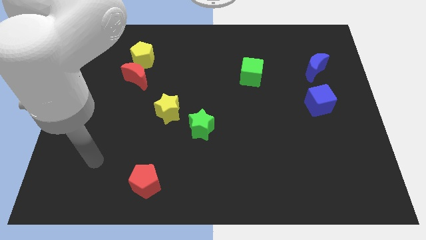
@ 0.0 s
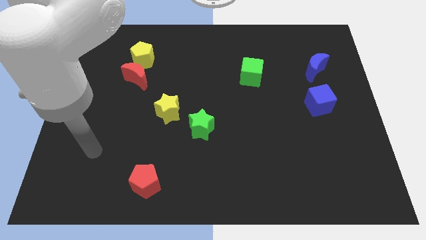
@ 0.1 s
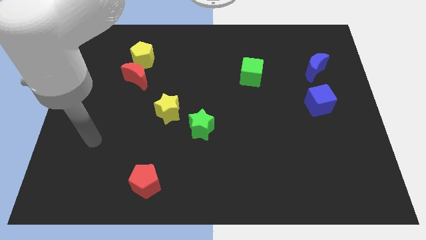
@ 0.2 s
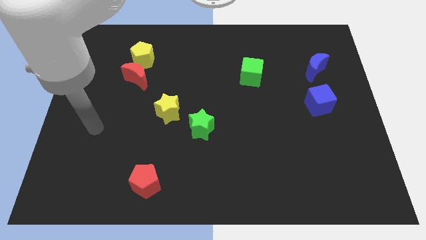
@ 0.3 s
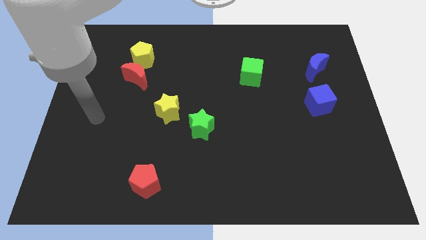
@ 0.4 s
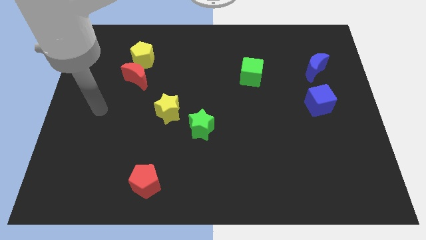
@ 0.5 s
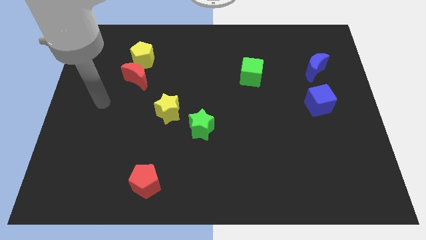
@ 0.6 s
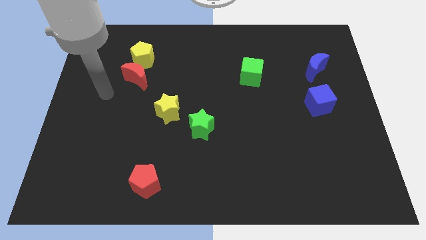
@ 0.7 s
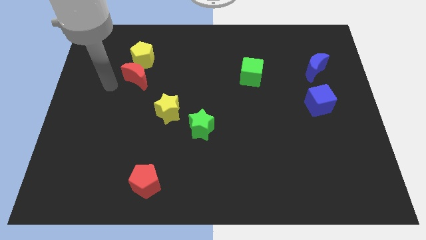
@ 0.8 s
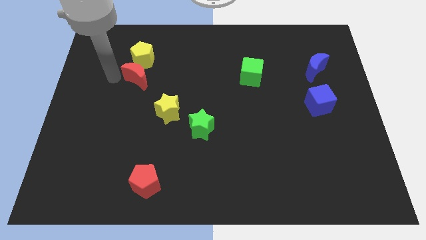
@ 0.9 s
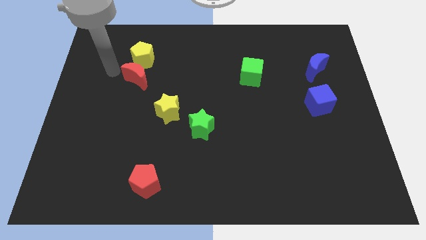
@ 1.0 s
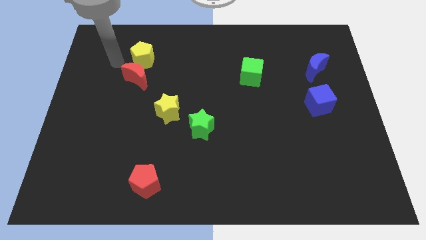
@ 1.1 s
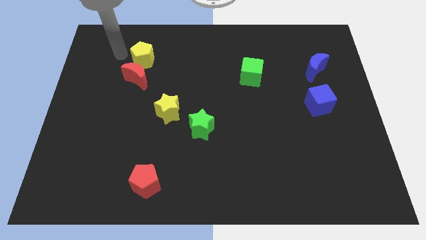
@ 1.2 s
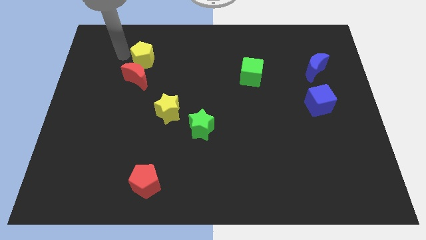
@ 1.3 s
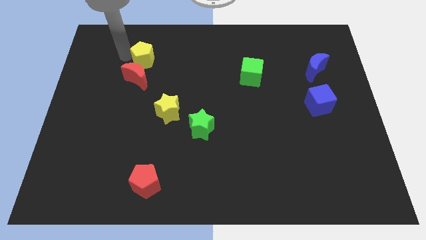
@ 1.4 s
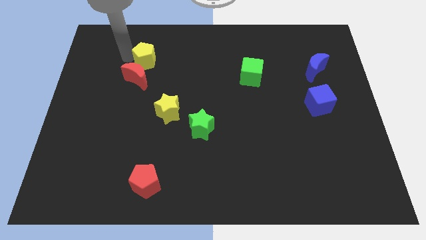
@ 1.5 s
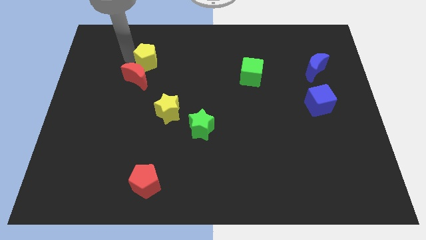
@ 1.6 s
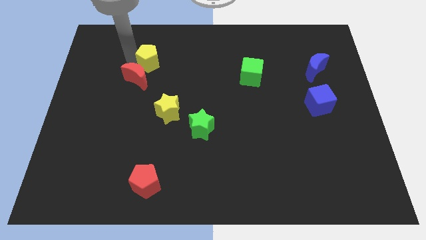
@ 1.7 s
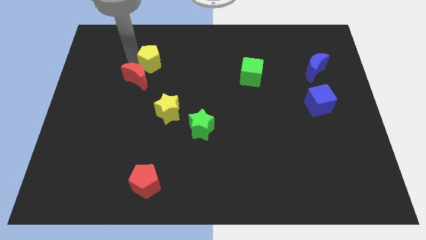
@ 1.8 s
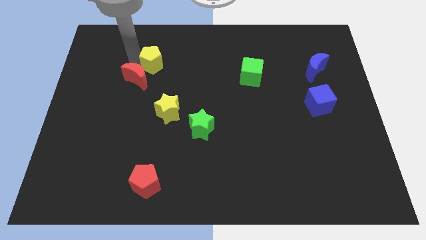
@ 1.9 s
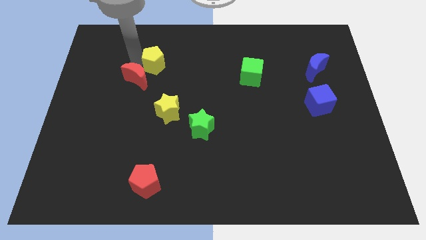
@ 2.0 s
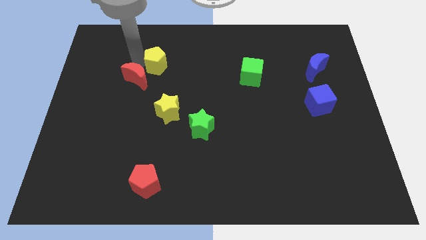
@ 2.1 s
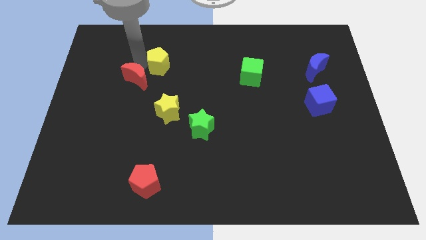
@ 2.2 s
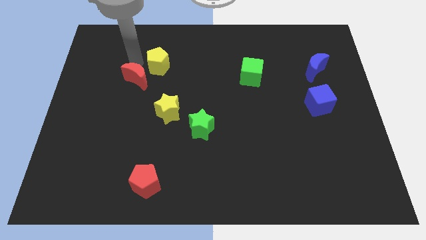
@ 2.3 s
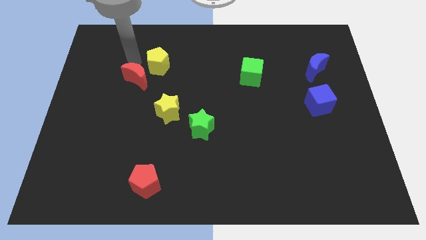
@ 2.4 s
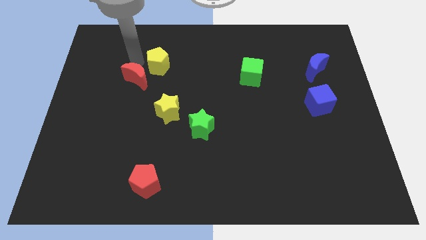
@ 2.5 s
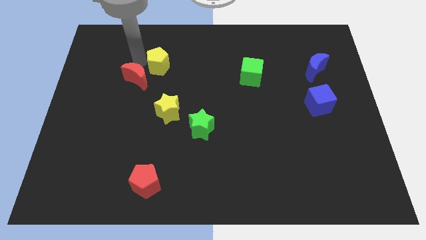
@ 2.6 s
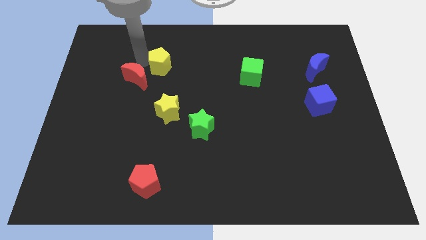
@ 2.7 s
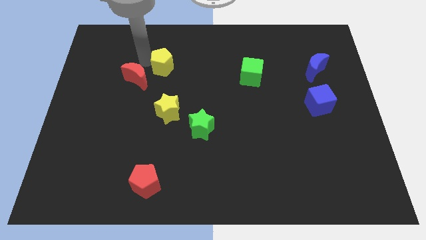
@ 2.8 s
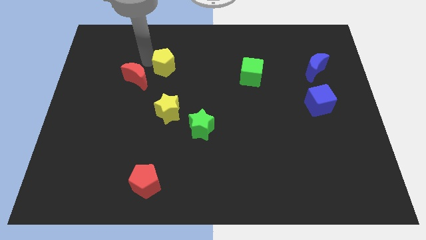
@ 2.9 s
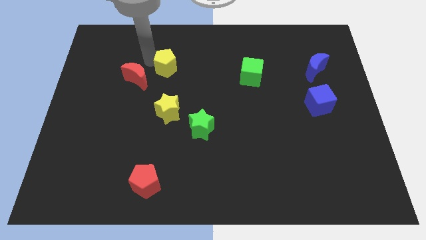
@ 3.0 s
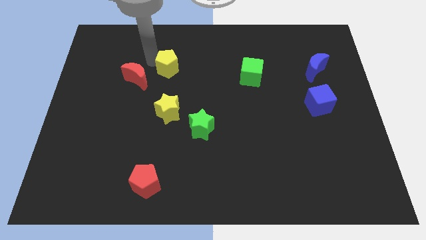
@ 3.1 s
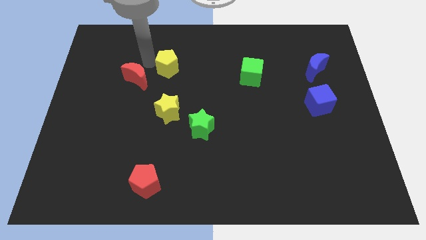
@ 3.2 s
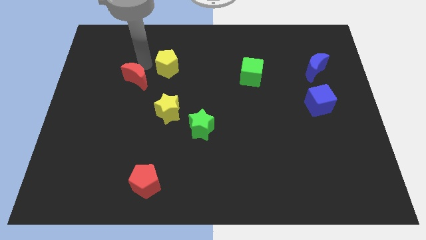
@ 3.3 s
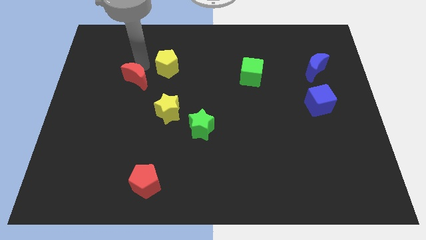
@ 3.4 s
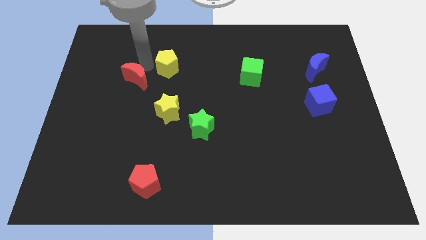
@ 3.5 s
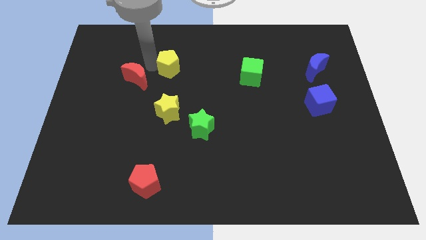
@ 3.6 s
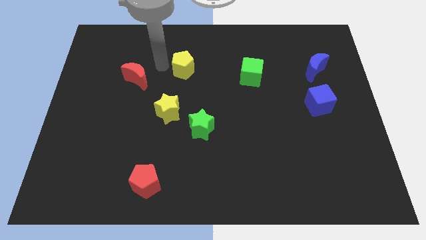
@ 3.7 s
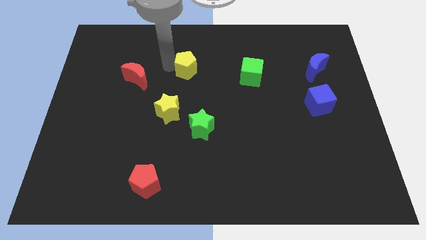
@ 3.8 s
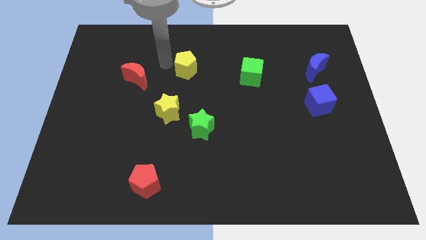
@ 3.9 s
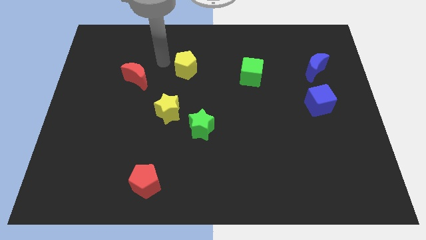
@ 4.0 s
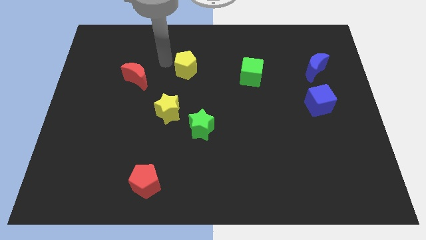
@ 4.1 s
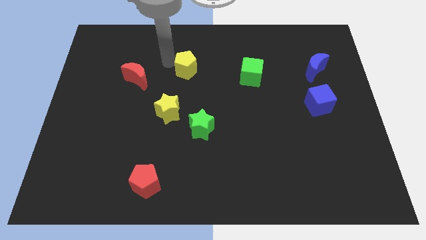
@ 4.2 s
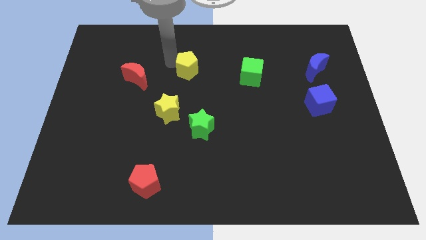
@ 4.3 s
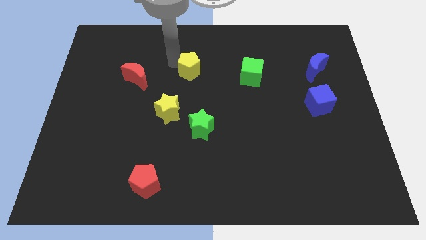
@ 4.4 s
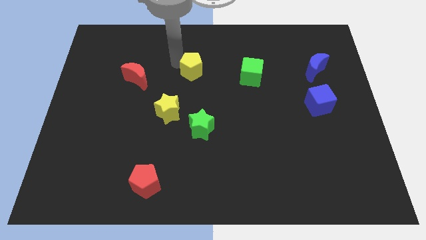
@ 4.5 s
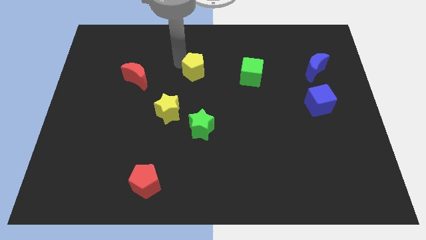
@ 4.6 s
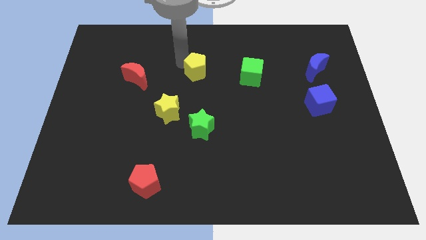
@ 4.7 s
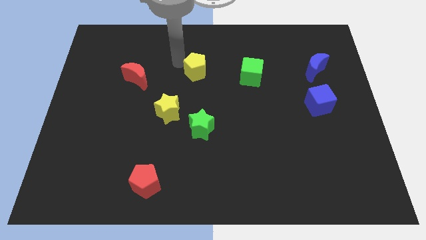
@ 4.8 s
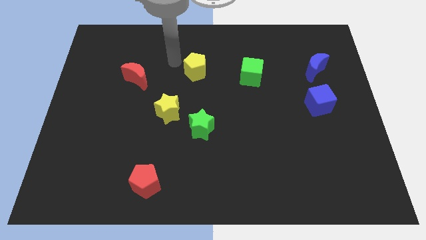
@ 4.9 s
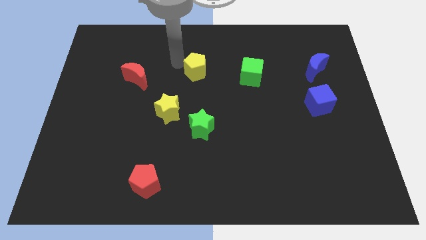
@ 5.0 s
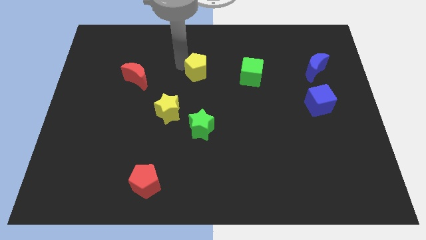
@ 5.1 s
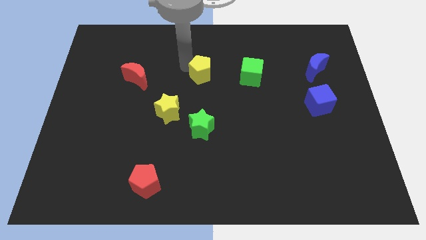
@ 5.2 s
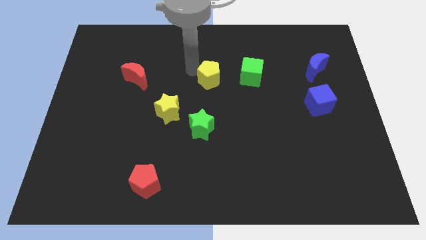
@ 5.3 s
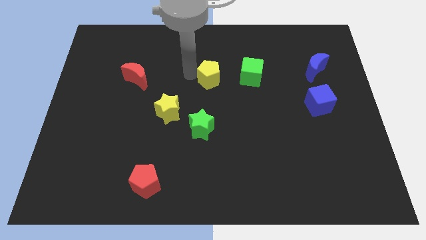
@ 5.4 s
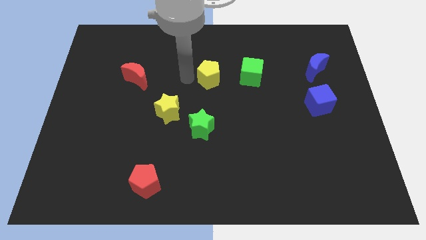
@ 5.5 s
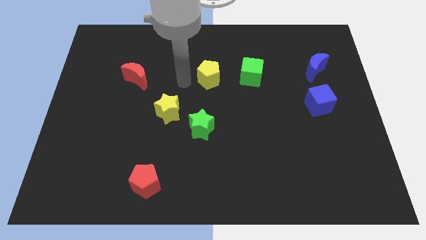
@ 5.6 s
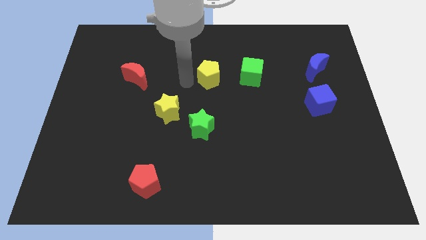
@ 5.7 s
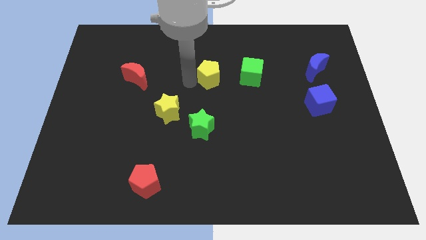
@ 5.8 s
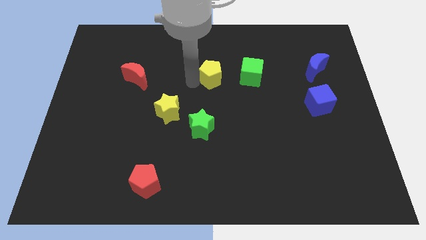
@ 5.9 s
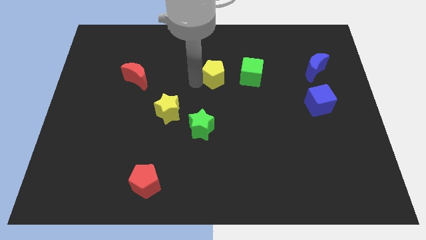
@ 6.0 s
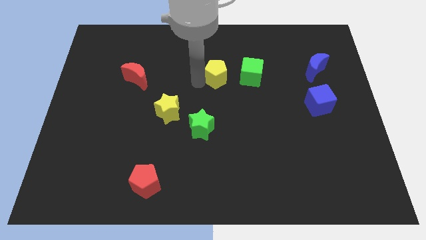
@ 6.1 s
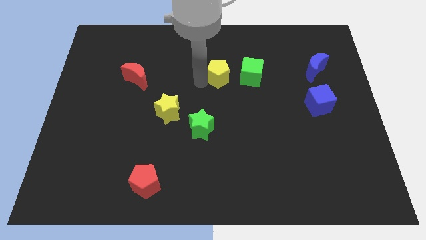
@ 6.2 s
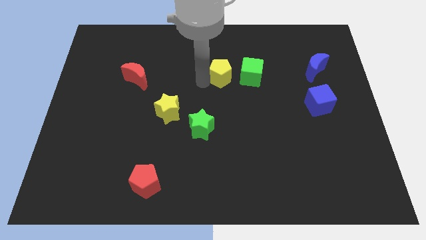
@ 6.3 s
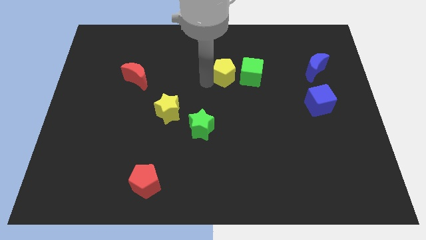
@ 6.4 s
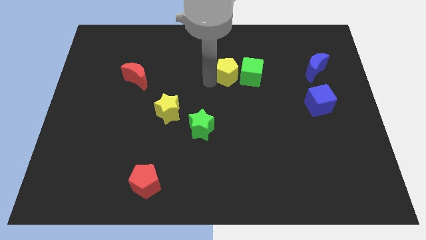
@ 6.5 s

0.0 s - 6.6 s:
put the yellow pentagon next to the green cube

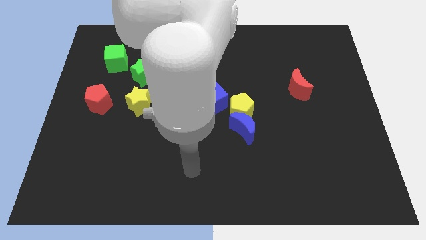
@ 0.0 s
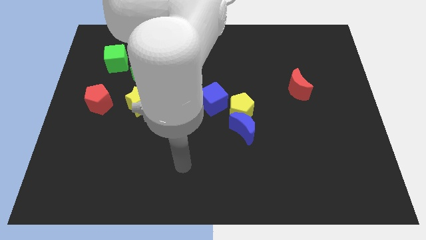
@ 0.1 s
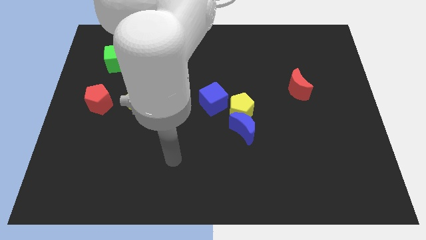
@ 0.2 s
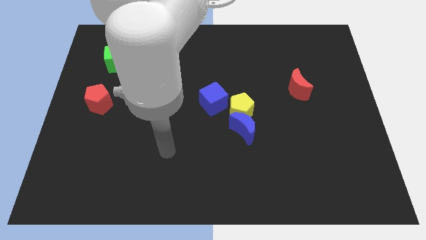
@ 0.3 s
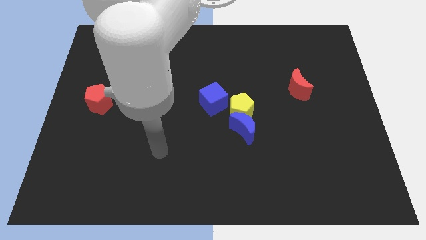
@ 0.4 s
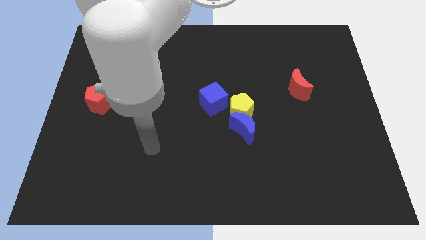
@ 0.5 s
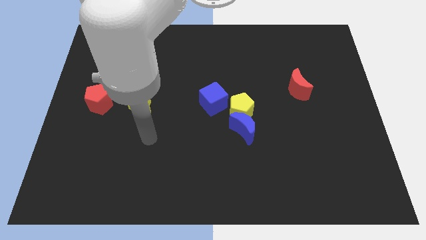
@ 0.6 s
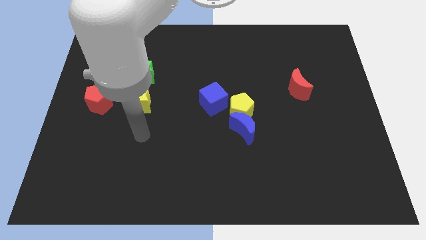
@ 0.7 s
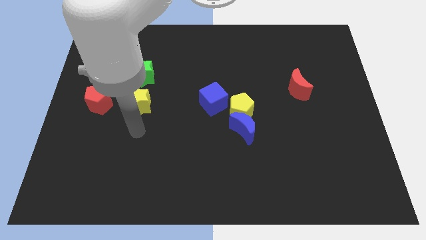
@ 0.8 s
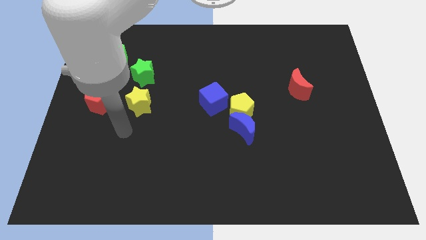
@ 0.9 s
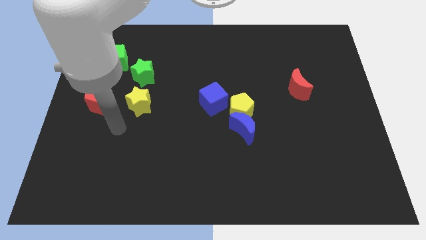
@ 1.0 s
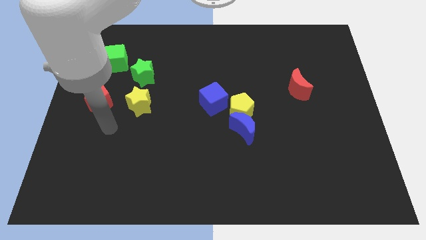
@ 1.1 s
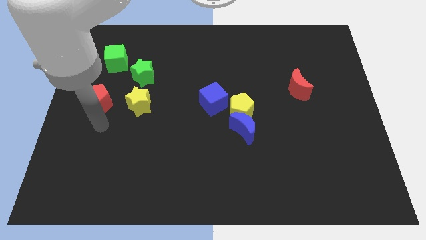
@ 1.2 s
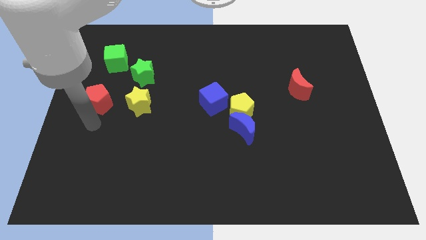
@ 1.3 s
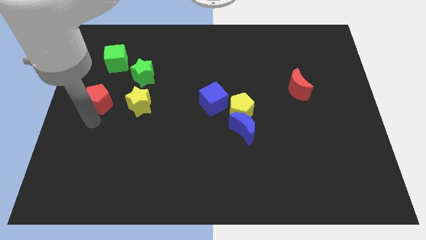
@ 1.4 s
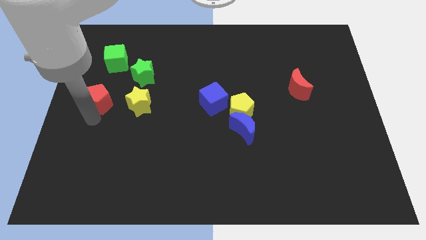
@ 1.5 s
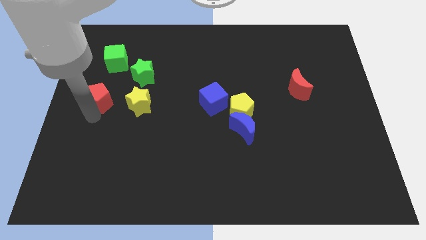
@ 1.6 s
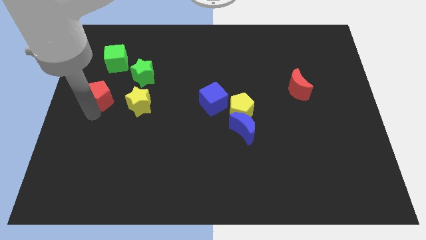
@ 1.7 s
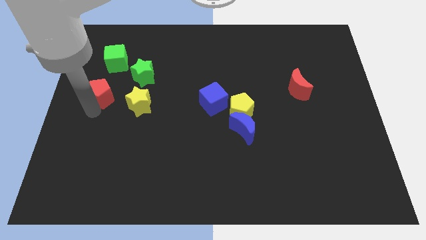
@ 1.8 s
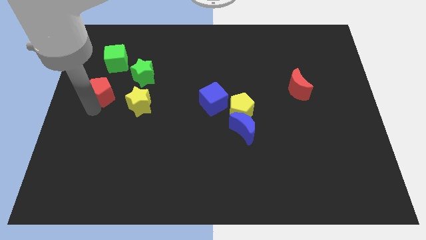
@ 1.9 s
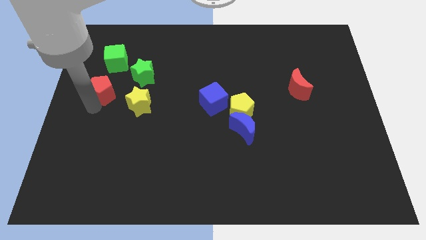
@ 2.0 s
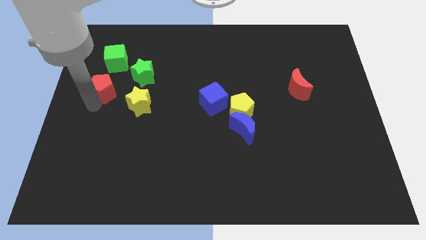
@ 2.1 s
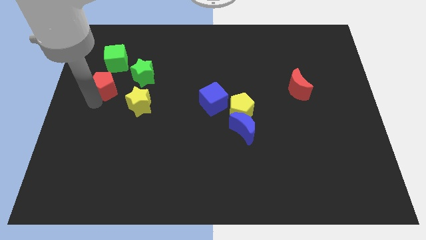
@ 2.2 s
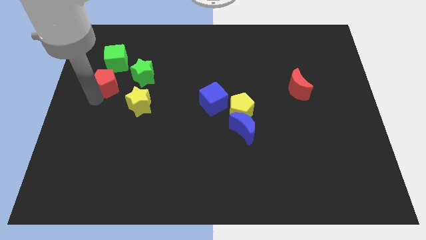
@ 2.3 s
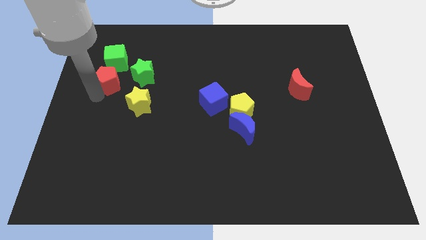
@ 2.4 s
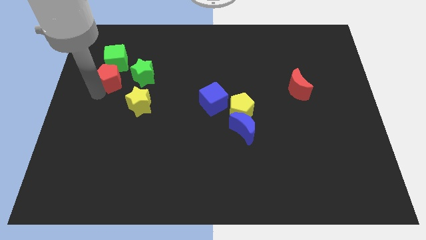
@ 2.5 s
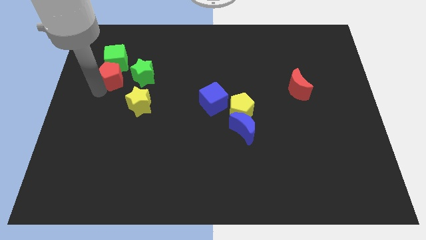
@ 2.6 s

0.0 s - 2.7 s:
push the red pentagon towards the green cube
